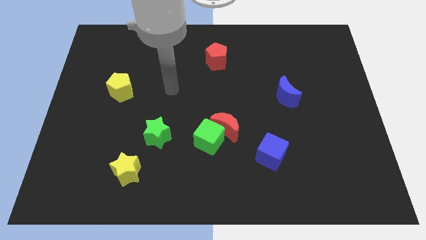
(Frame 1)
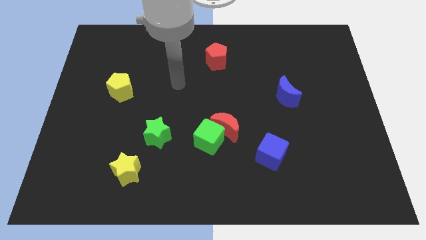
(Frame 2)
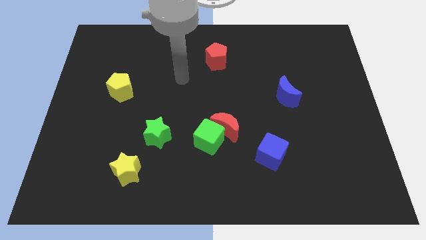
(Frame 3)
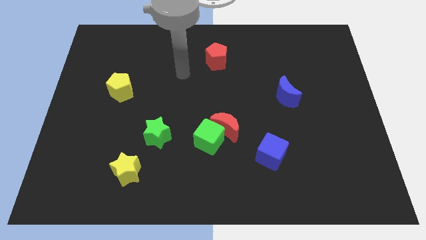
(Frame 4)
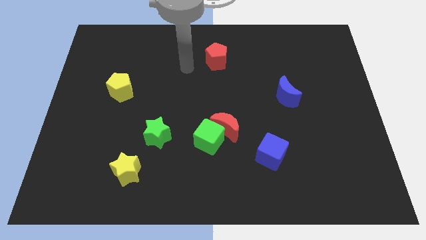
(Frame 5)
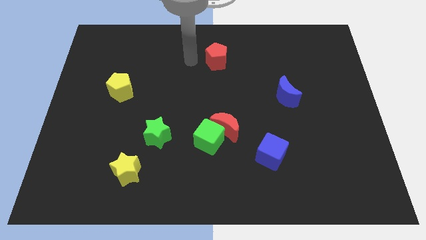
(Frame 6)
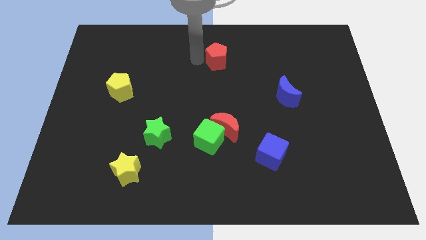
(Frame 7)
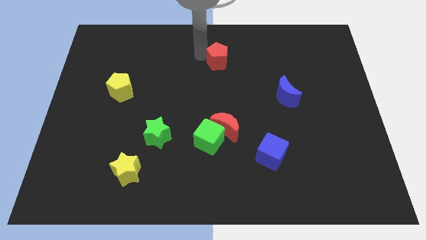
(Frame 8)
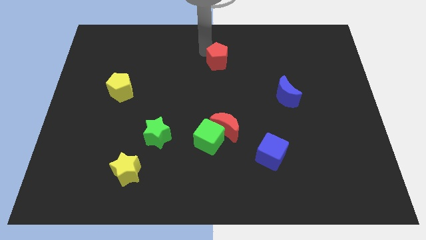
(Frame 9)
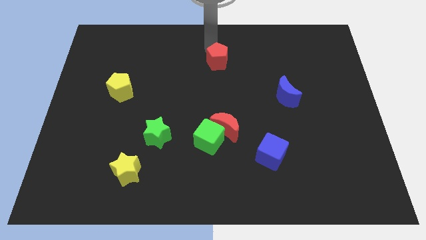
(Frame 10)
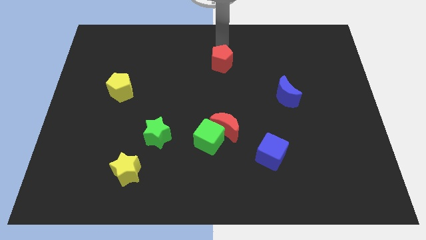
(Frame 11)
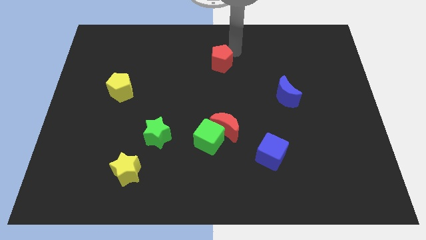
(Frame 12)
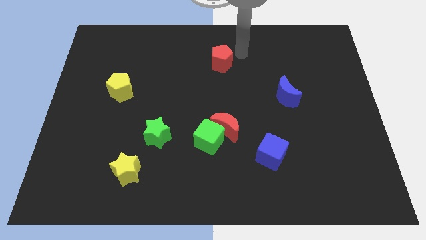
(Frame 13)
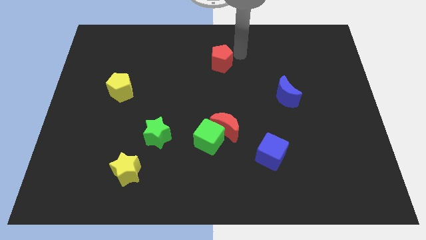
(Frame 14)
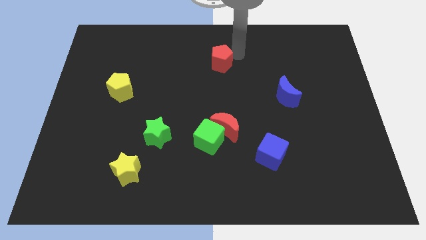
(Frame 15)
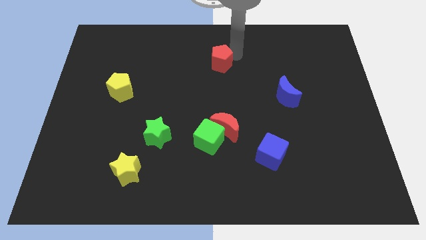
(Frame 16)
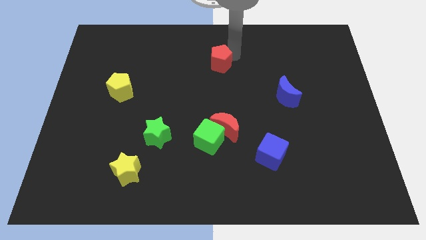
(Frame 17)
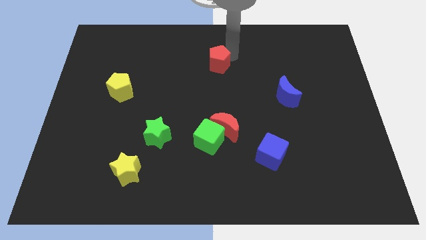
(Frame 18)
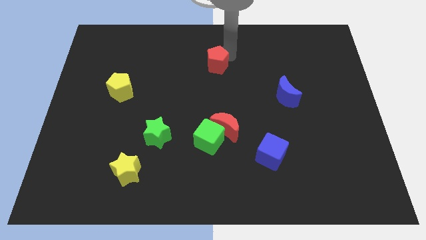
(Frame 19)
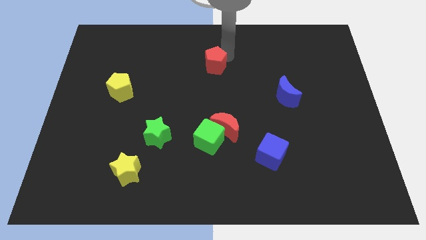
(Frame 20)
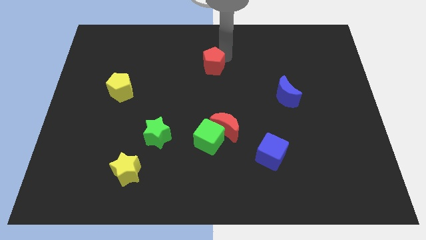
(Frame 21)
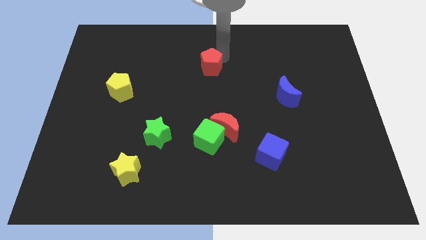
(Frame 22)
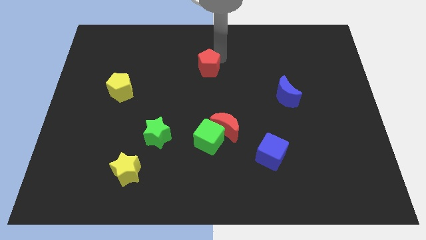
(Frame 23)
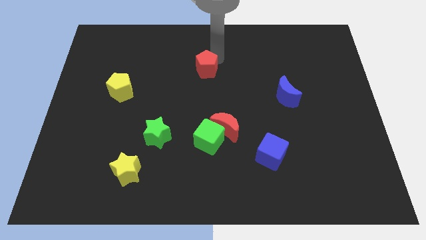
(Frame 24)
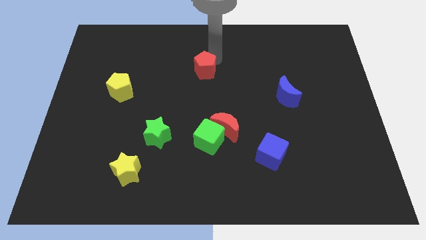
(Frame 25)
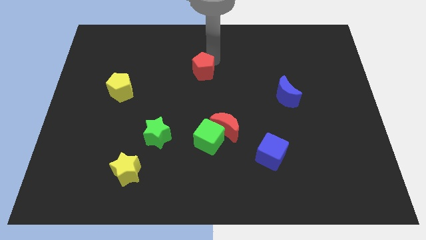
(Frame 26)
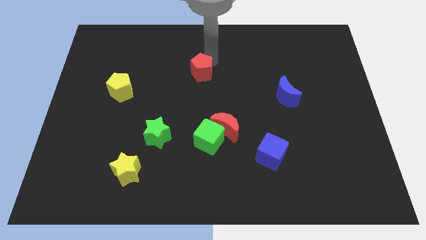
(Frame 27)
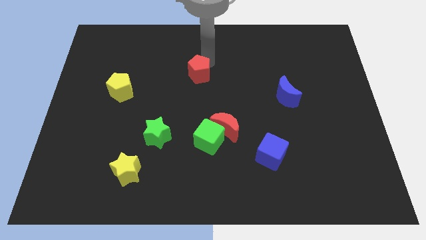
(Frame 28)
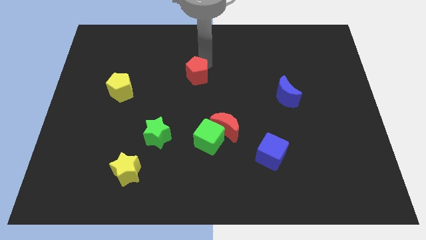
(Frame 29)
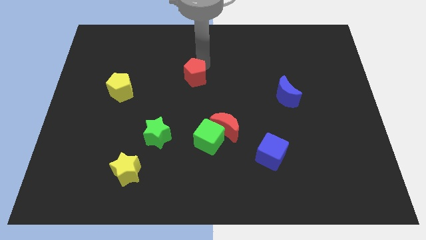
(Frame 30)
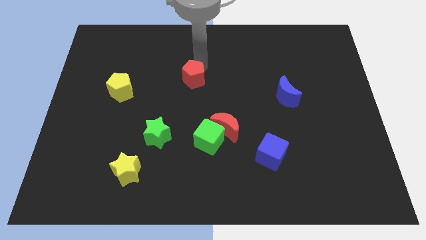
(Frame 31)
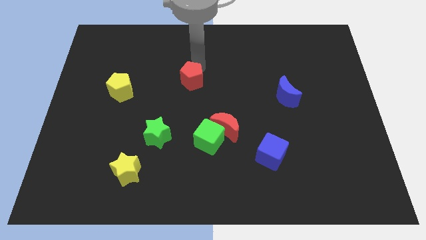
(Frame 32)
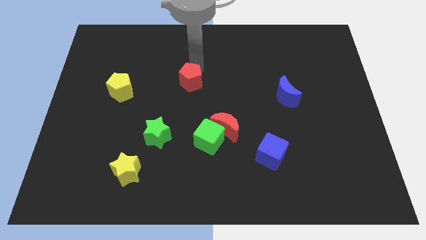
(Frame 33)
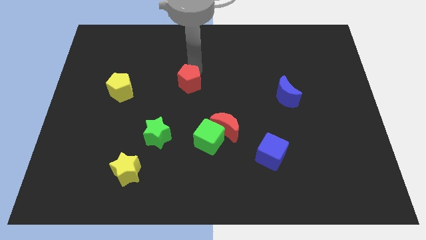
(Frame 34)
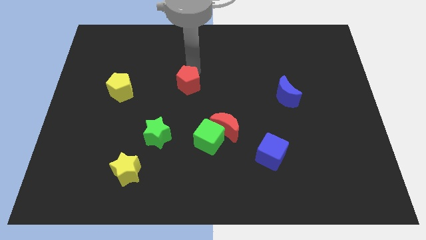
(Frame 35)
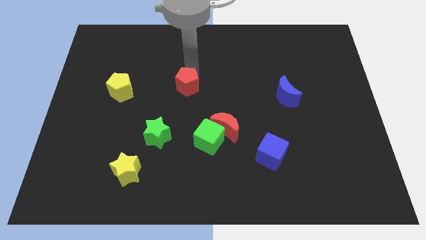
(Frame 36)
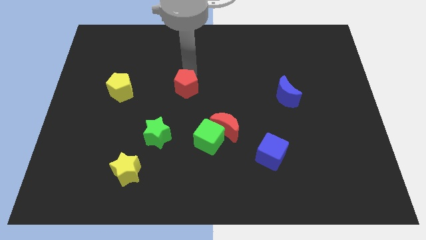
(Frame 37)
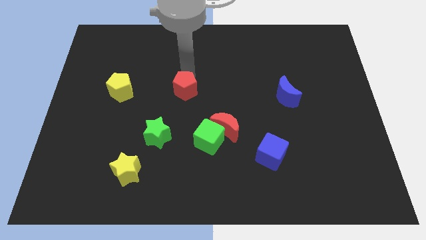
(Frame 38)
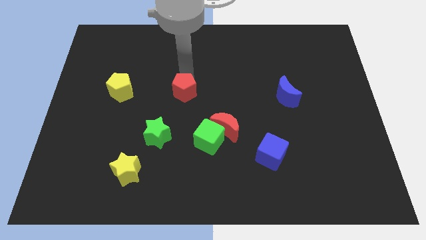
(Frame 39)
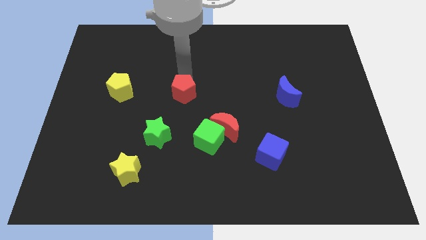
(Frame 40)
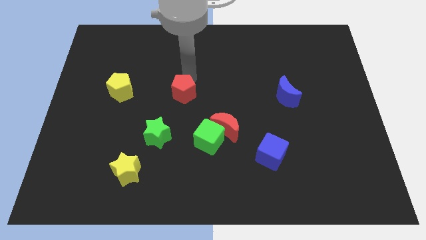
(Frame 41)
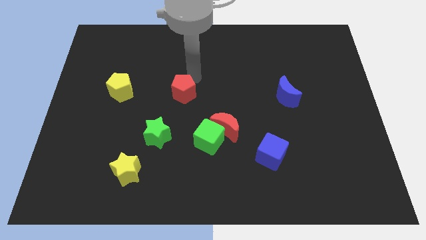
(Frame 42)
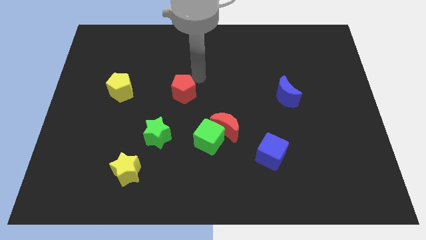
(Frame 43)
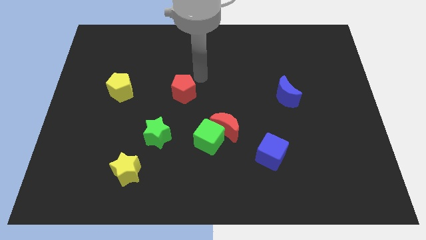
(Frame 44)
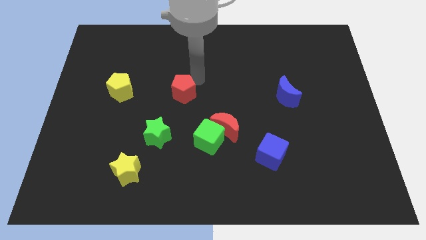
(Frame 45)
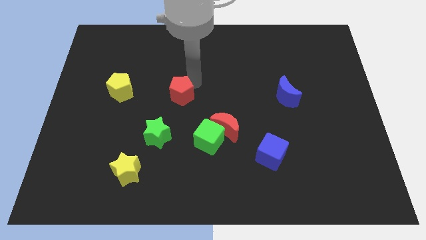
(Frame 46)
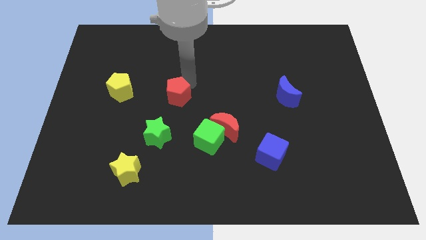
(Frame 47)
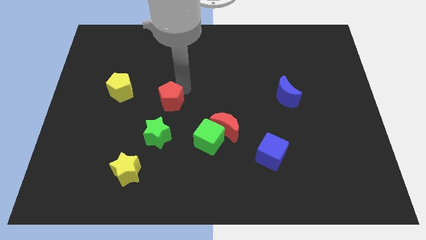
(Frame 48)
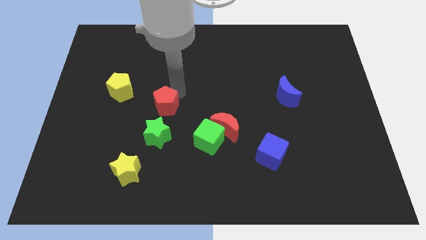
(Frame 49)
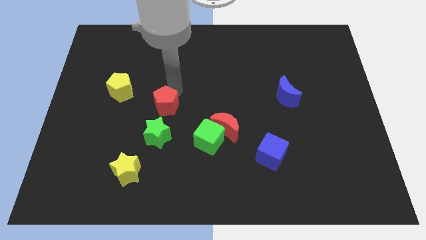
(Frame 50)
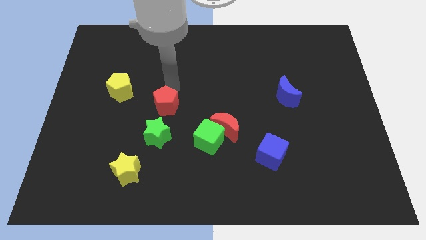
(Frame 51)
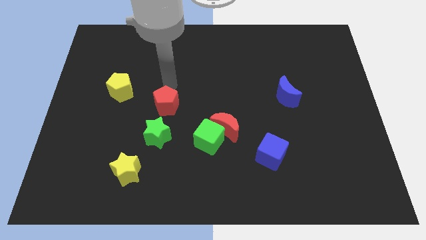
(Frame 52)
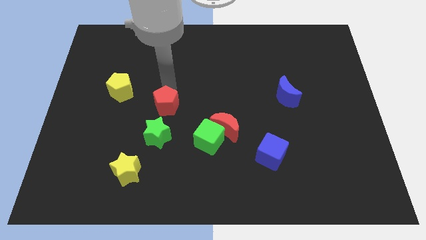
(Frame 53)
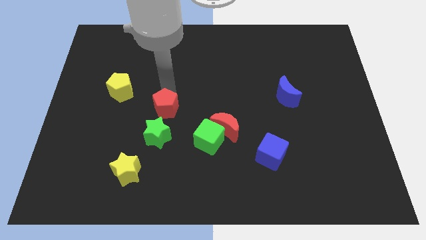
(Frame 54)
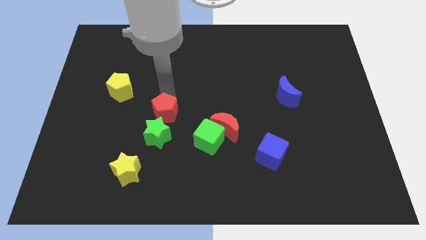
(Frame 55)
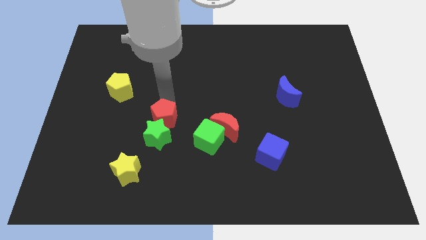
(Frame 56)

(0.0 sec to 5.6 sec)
move the red pentagon next to the green star

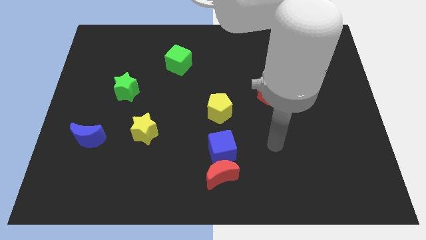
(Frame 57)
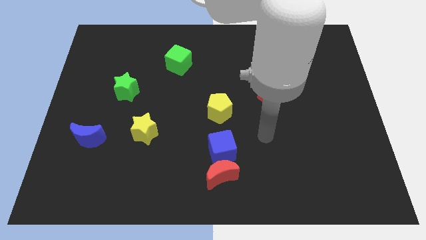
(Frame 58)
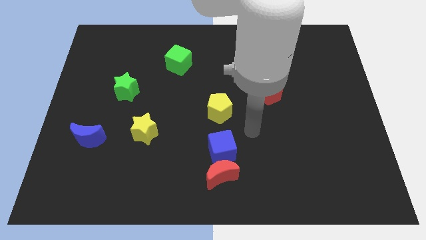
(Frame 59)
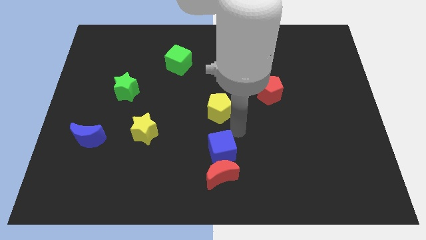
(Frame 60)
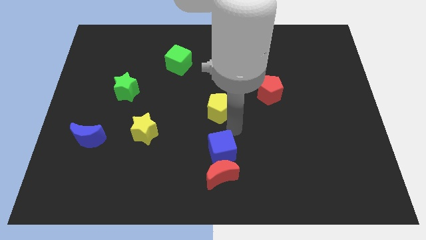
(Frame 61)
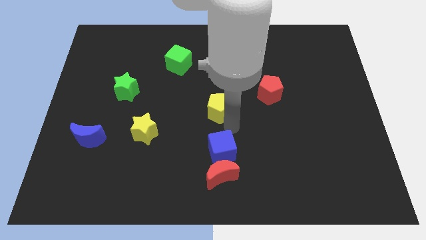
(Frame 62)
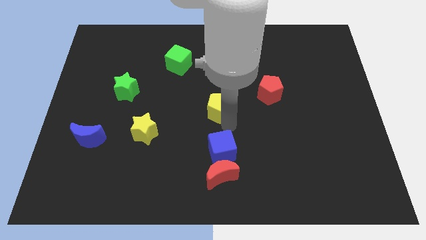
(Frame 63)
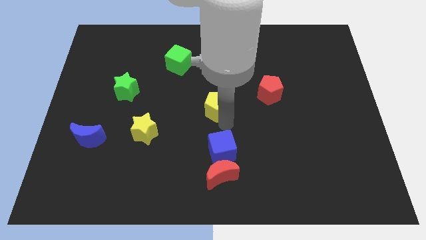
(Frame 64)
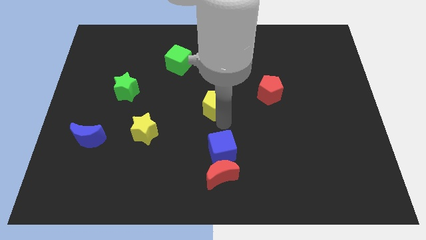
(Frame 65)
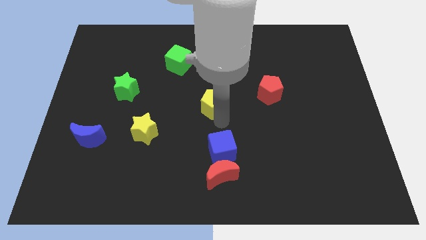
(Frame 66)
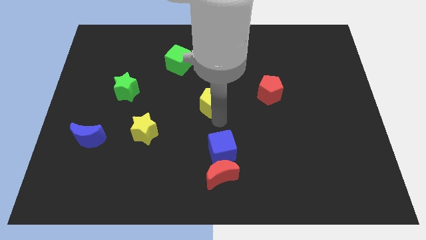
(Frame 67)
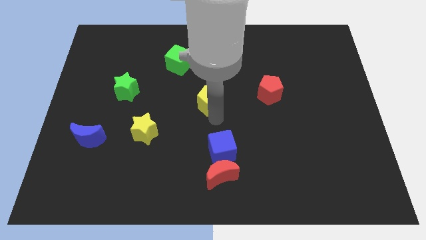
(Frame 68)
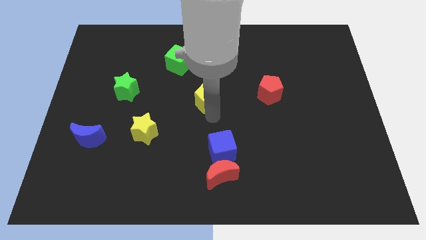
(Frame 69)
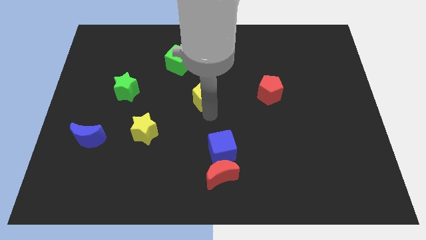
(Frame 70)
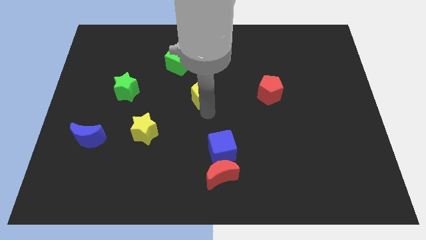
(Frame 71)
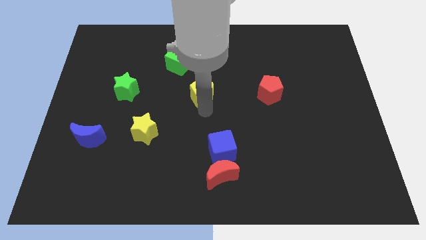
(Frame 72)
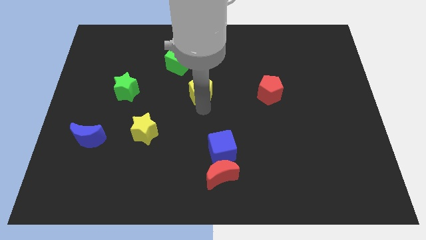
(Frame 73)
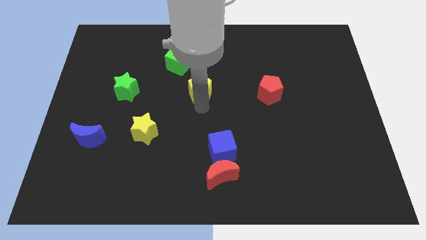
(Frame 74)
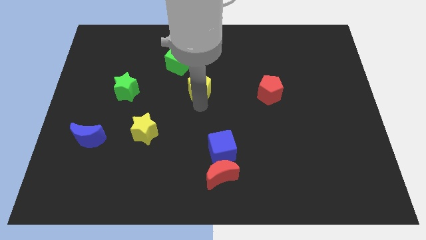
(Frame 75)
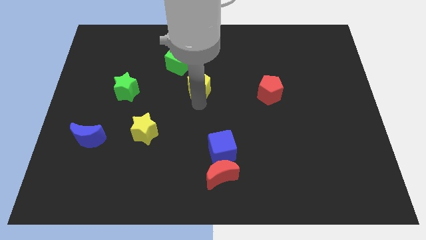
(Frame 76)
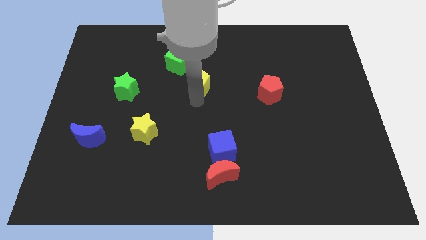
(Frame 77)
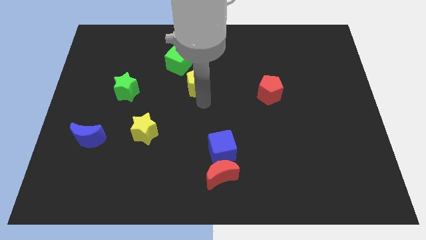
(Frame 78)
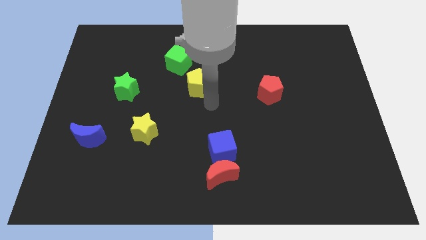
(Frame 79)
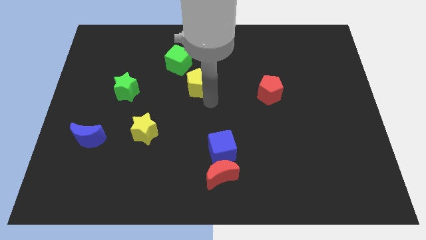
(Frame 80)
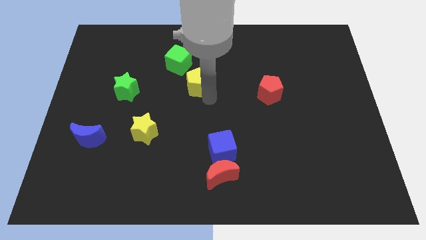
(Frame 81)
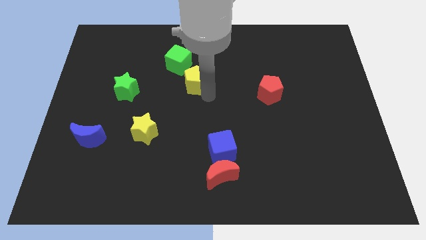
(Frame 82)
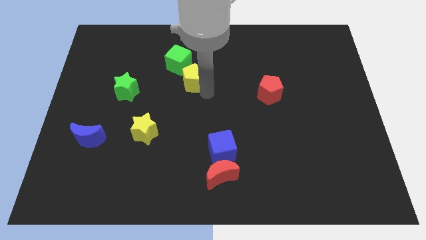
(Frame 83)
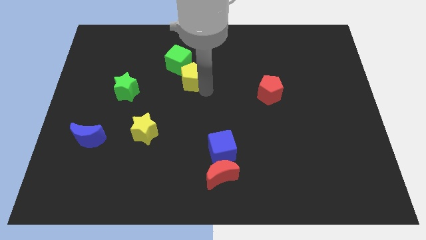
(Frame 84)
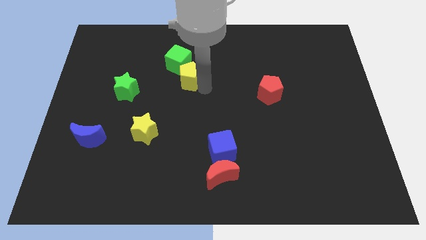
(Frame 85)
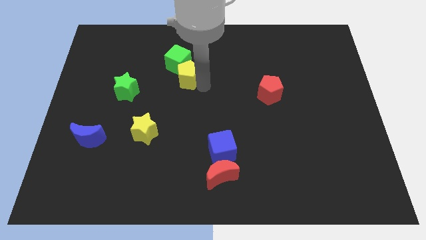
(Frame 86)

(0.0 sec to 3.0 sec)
put the yellow pentagon next to the green cube
